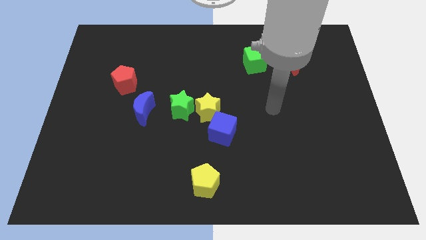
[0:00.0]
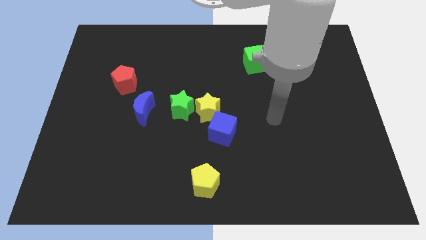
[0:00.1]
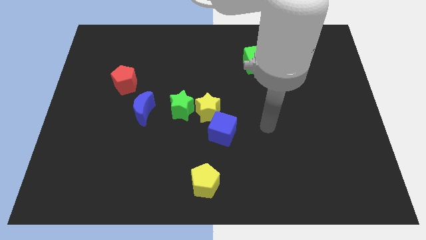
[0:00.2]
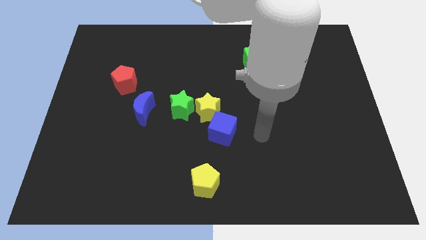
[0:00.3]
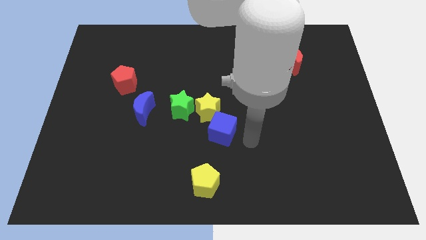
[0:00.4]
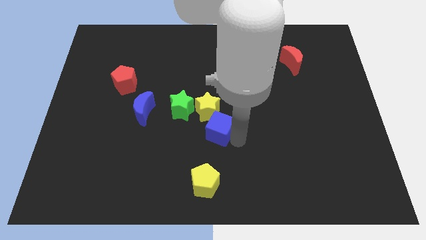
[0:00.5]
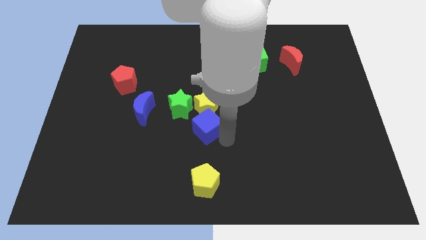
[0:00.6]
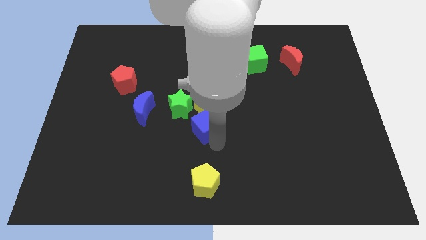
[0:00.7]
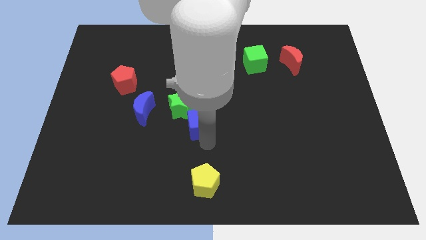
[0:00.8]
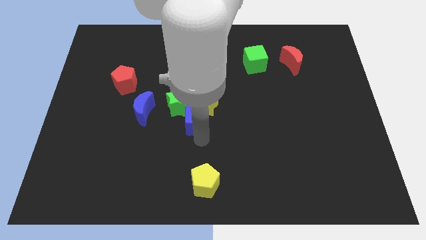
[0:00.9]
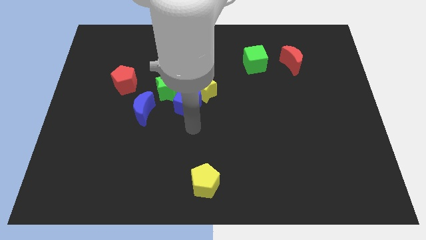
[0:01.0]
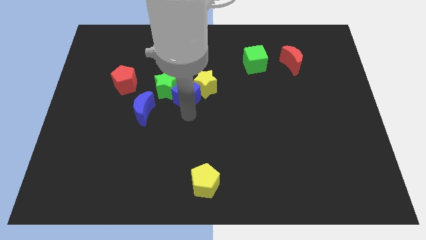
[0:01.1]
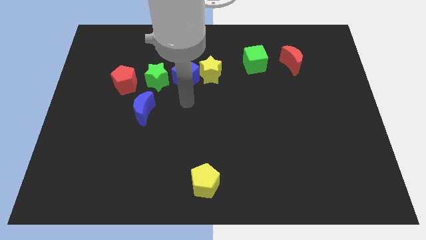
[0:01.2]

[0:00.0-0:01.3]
separate the yellow star from the green star and blue cube

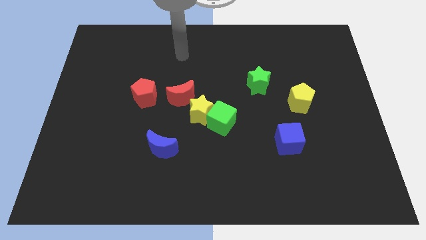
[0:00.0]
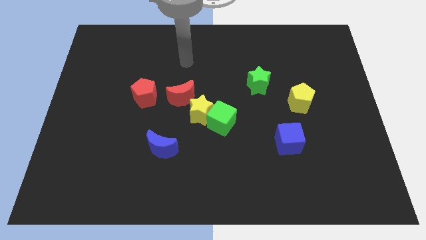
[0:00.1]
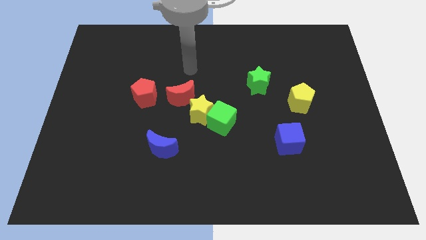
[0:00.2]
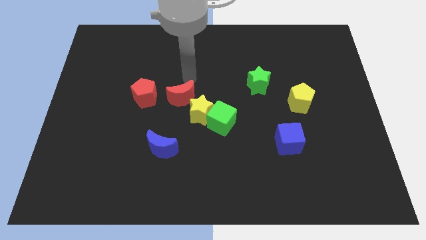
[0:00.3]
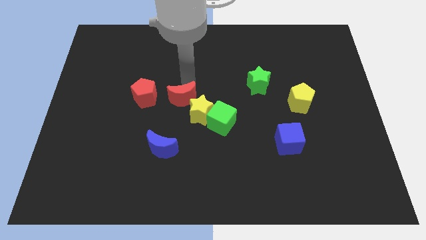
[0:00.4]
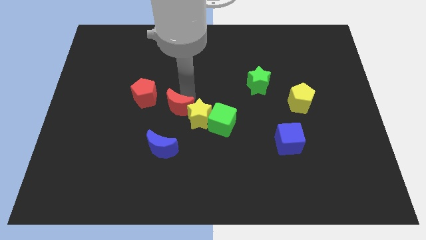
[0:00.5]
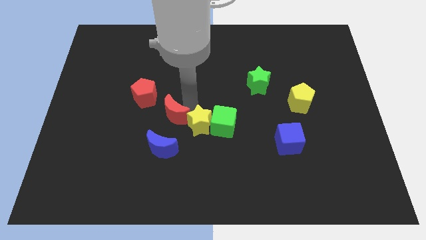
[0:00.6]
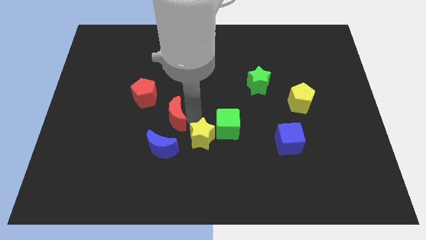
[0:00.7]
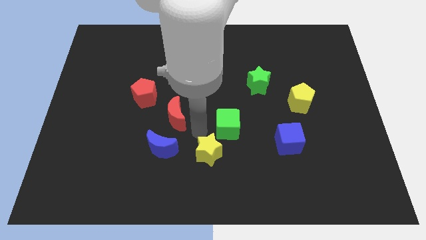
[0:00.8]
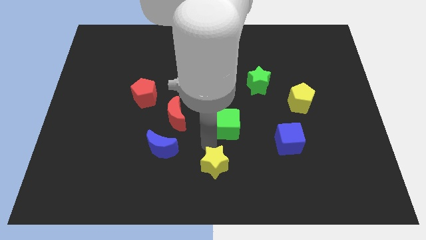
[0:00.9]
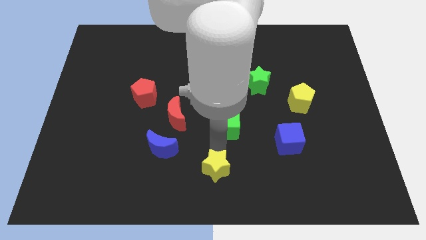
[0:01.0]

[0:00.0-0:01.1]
move the green cube away from the yellow star

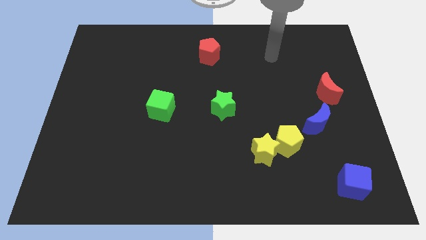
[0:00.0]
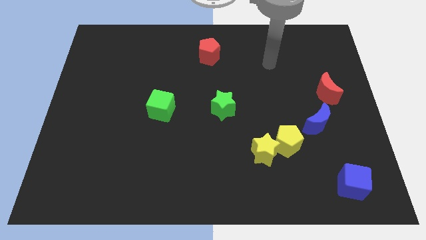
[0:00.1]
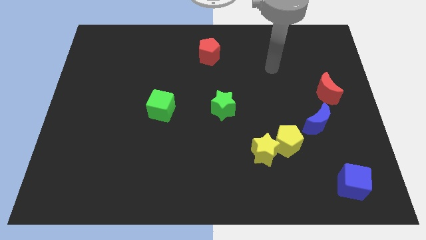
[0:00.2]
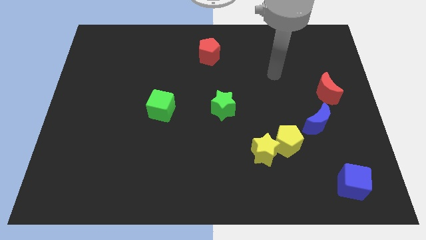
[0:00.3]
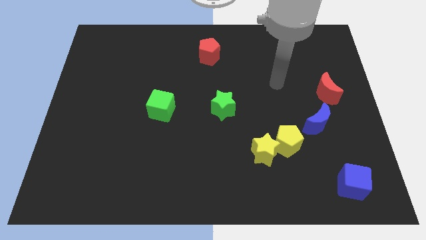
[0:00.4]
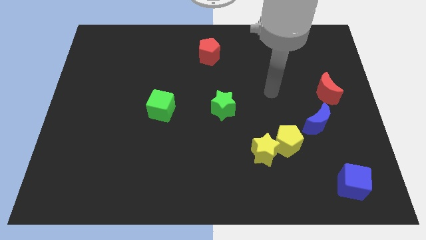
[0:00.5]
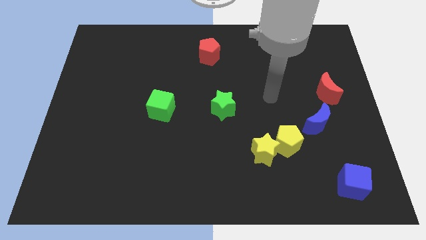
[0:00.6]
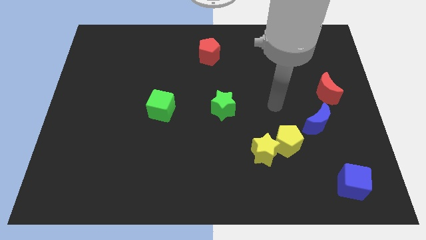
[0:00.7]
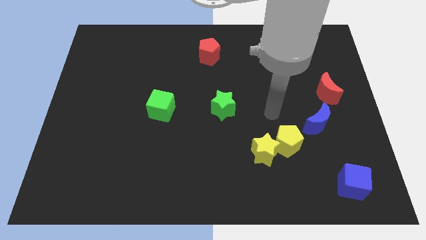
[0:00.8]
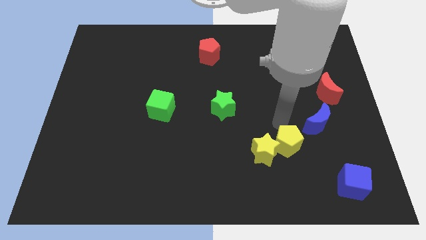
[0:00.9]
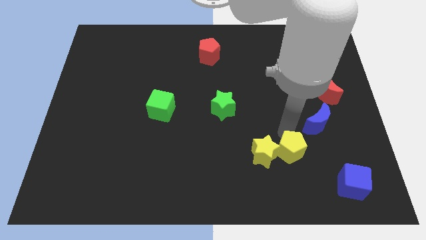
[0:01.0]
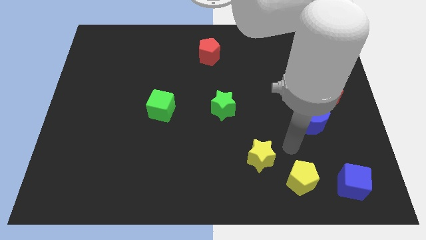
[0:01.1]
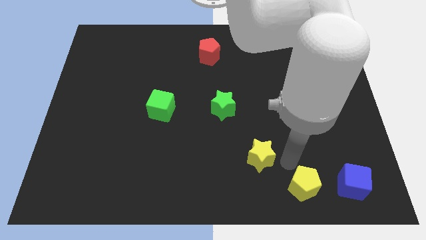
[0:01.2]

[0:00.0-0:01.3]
move the yellow star away from the yellow pentagon

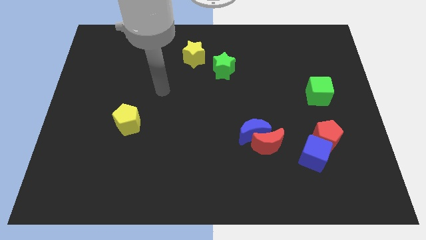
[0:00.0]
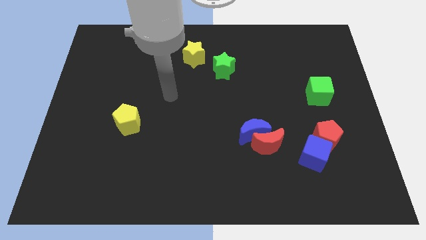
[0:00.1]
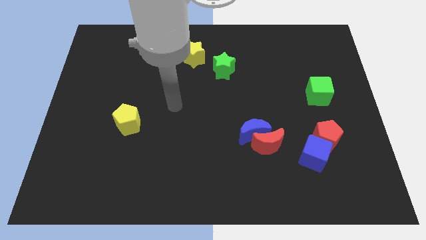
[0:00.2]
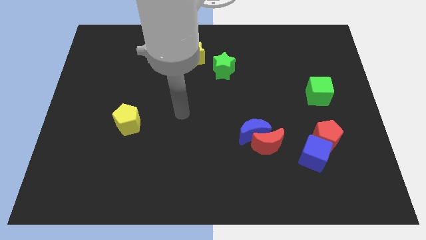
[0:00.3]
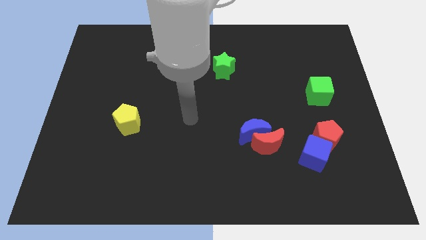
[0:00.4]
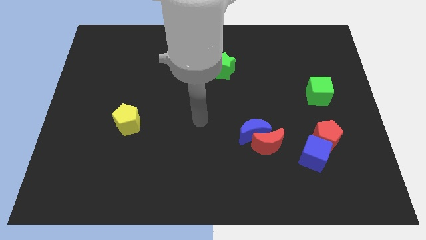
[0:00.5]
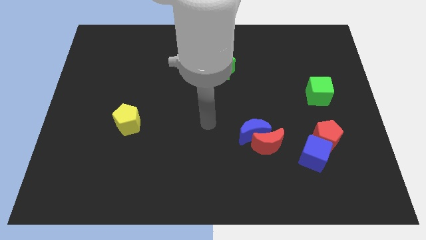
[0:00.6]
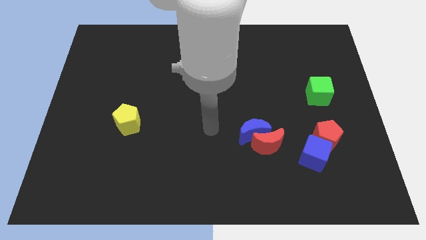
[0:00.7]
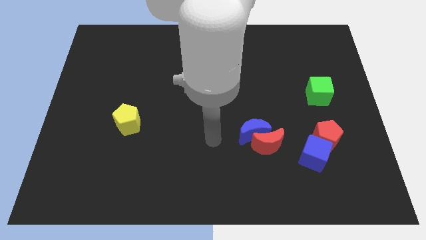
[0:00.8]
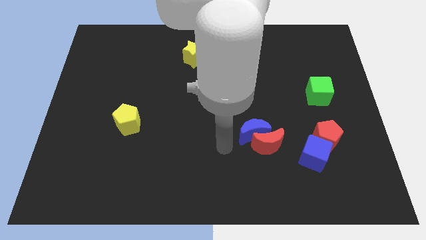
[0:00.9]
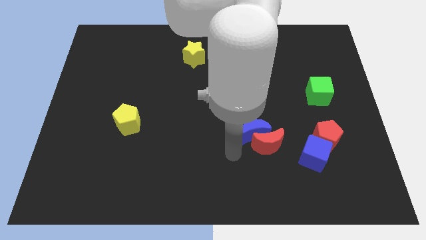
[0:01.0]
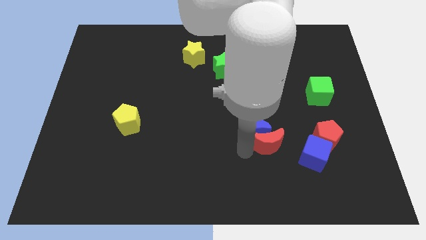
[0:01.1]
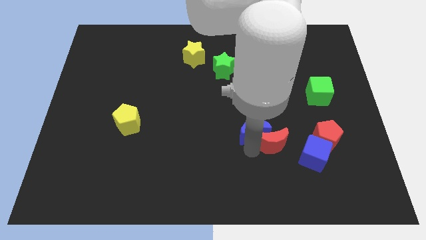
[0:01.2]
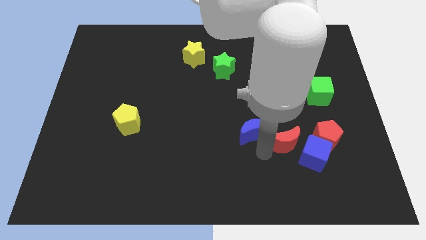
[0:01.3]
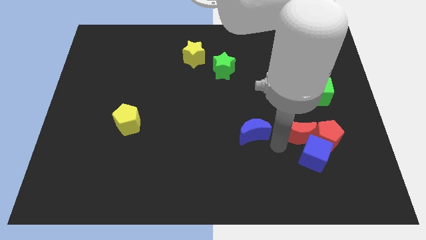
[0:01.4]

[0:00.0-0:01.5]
pull the blue moon apart from the red moon

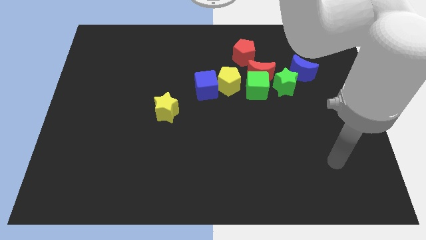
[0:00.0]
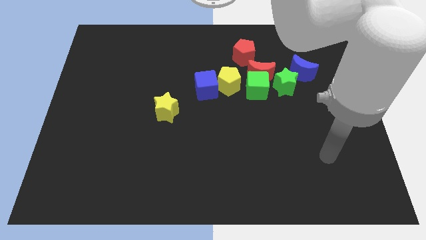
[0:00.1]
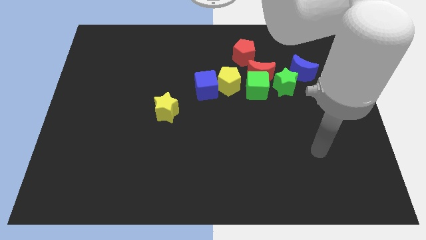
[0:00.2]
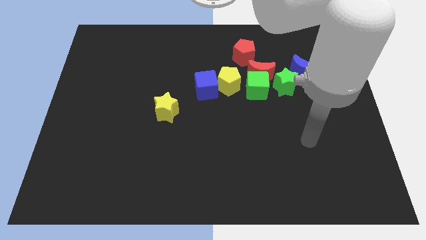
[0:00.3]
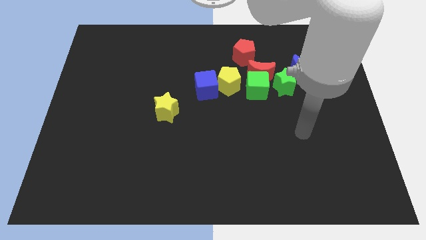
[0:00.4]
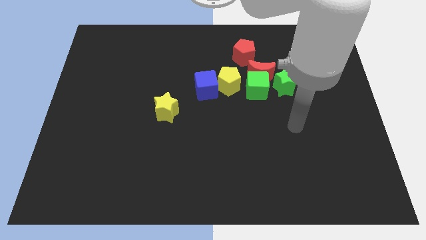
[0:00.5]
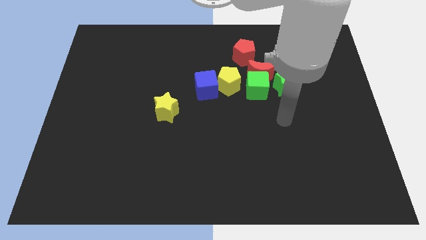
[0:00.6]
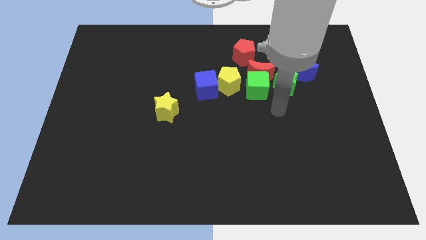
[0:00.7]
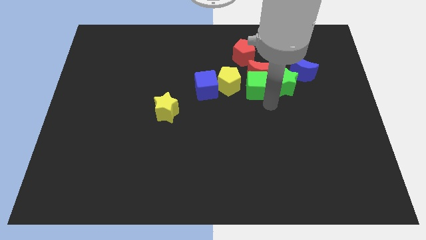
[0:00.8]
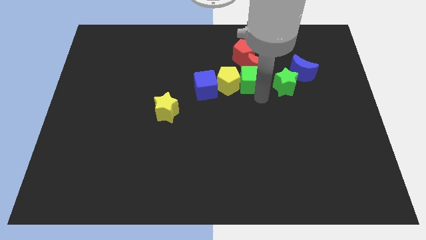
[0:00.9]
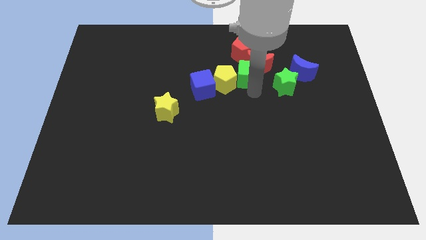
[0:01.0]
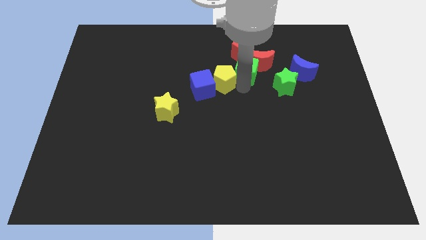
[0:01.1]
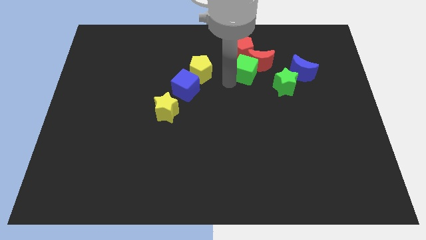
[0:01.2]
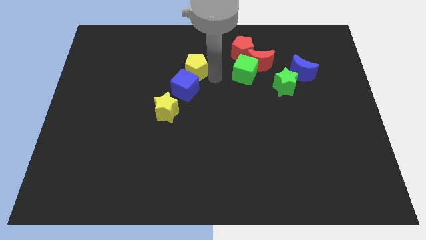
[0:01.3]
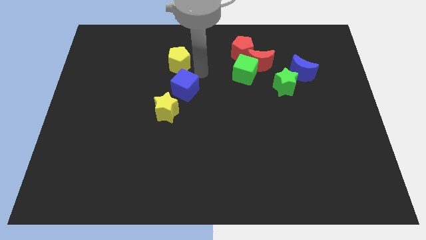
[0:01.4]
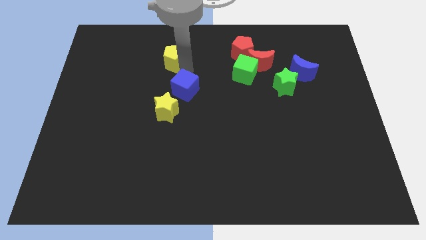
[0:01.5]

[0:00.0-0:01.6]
move the blue cube away from the yellow pentagon

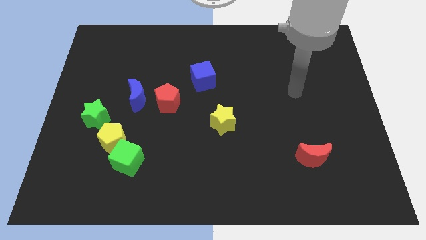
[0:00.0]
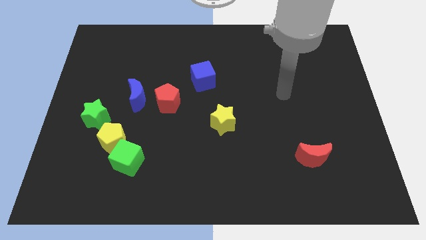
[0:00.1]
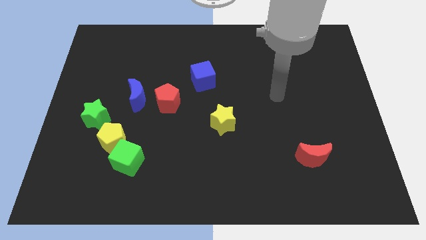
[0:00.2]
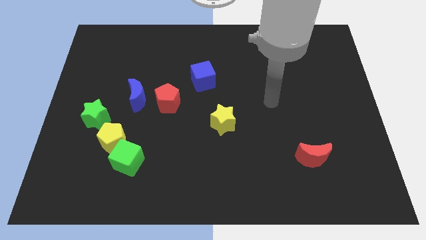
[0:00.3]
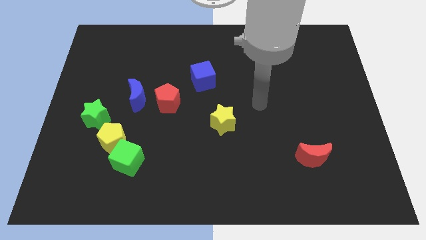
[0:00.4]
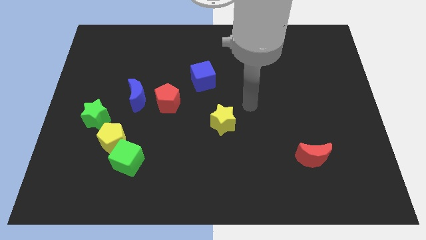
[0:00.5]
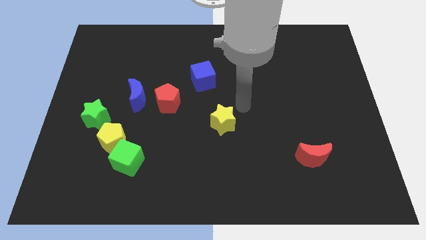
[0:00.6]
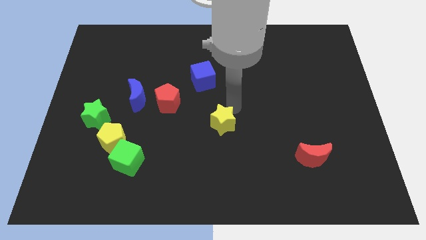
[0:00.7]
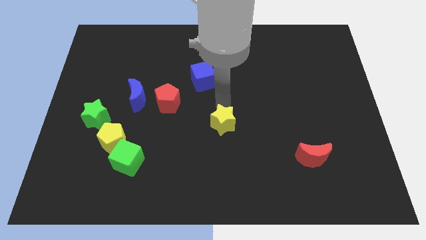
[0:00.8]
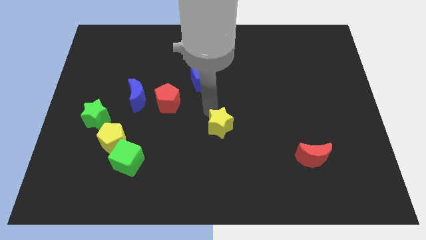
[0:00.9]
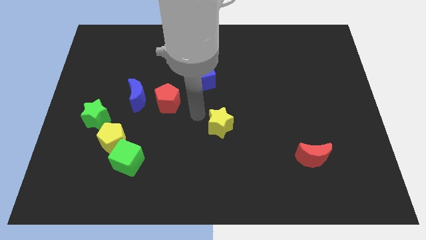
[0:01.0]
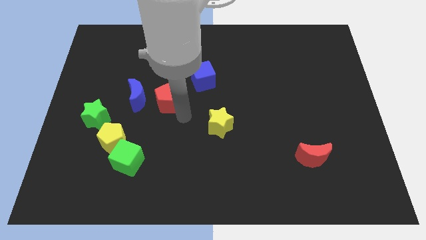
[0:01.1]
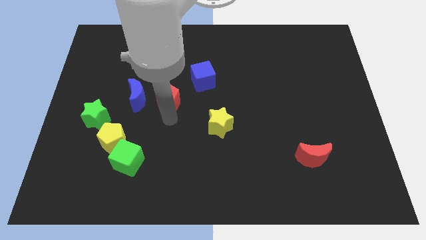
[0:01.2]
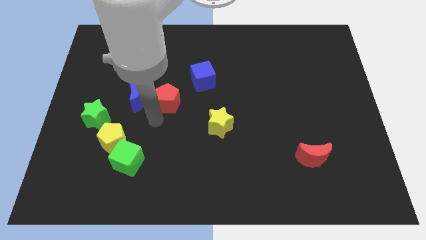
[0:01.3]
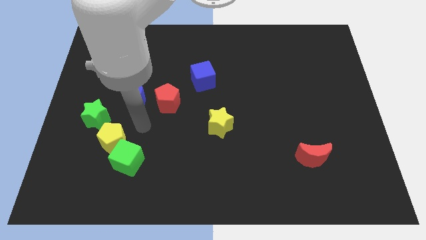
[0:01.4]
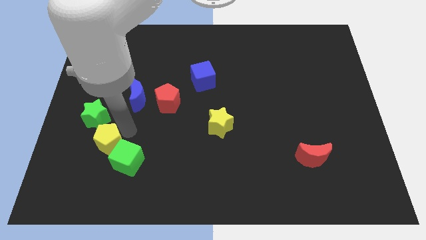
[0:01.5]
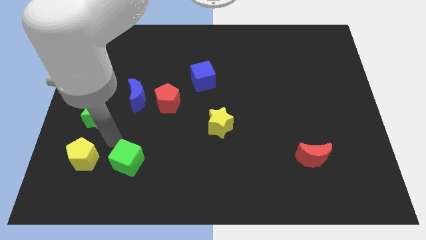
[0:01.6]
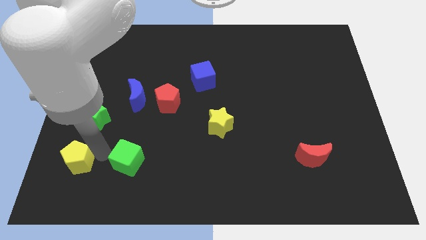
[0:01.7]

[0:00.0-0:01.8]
separate the green cube from the yellow pentagon

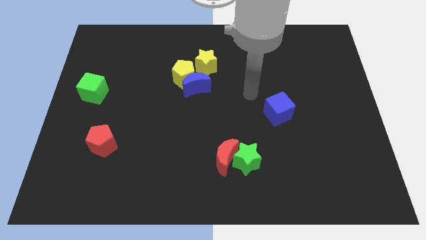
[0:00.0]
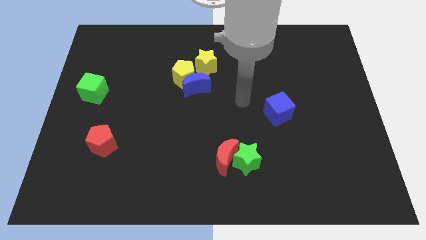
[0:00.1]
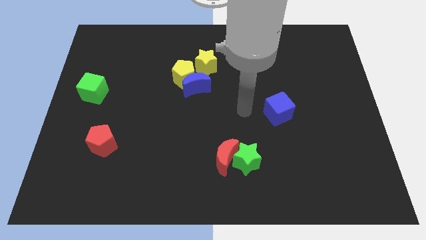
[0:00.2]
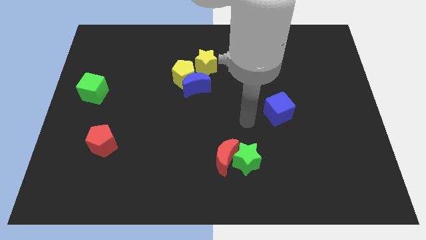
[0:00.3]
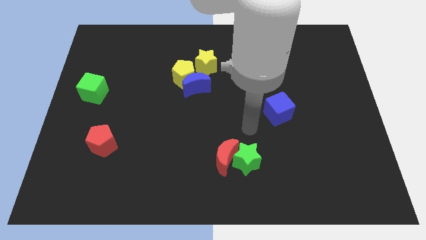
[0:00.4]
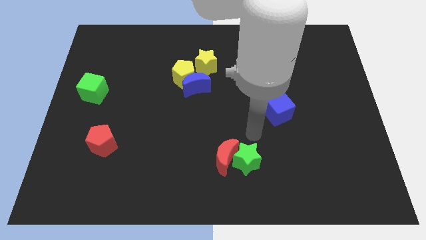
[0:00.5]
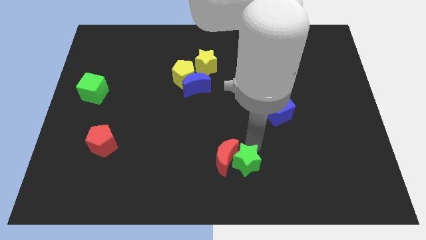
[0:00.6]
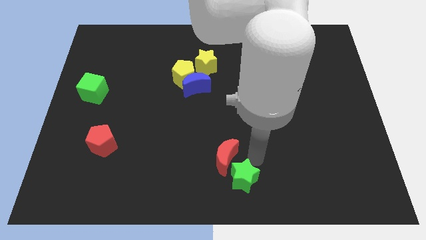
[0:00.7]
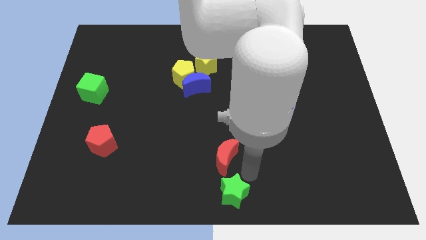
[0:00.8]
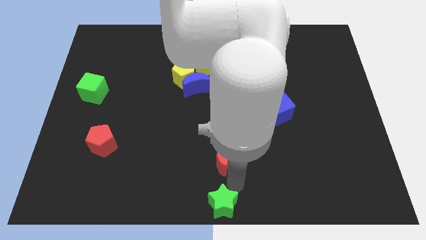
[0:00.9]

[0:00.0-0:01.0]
move the red moon away from the green star
